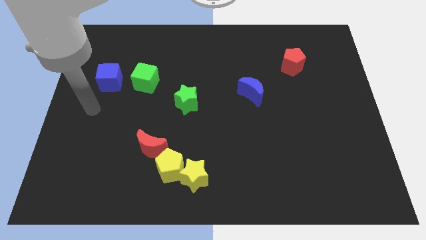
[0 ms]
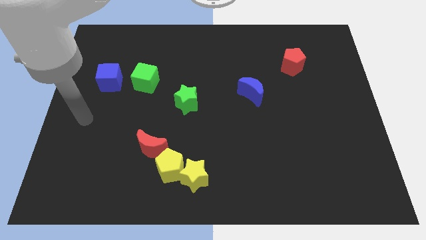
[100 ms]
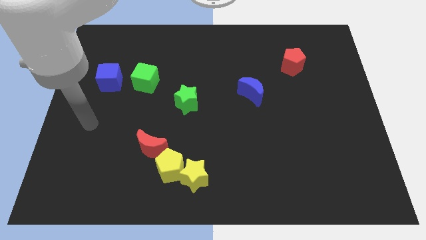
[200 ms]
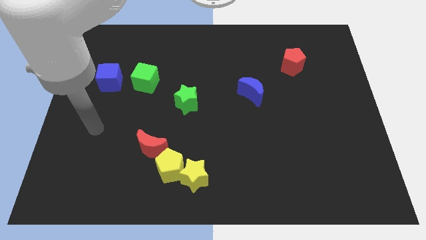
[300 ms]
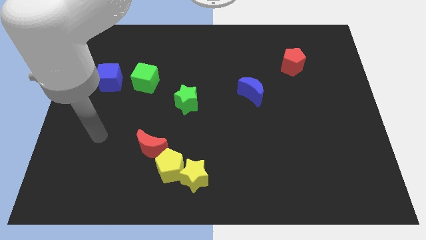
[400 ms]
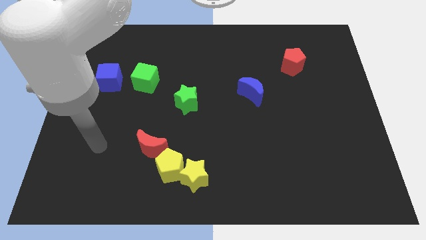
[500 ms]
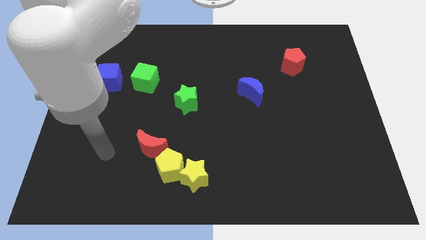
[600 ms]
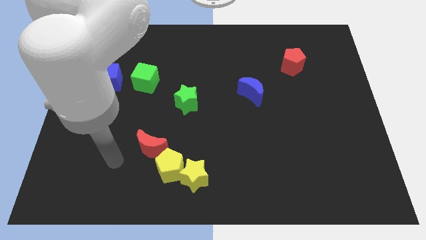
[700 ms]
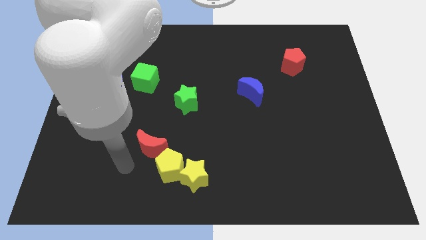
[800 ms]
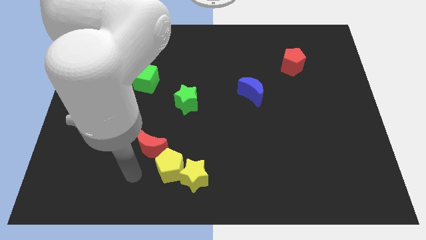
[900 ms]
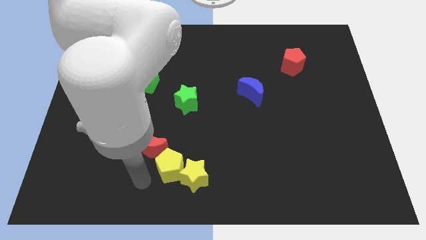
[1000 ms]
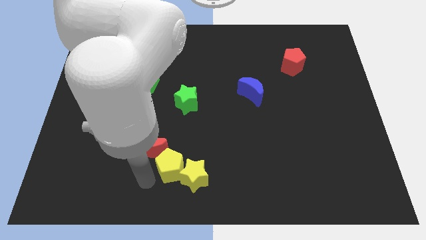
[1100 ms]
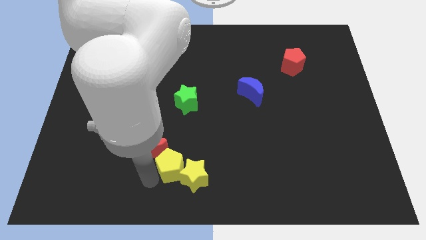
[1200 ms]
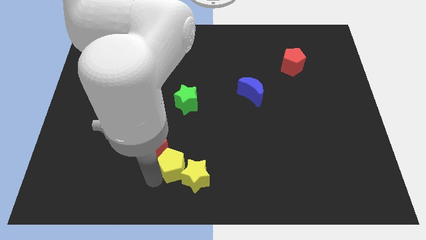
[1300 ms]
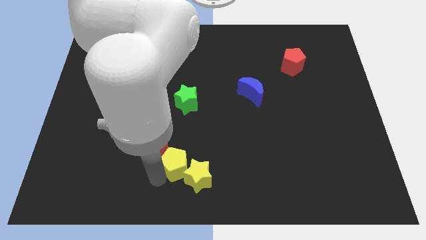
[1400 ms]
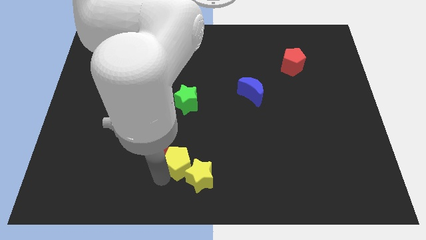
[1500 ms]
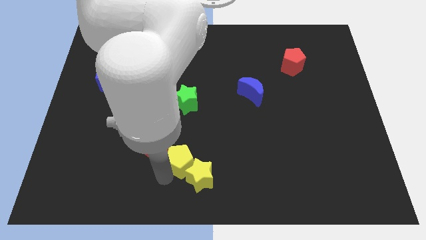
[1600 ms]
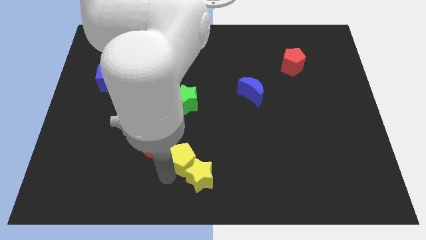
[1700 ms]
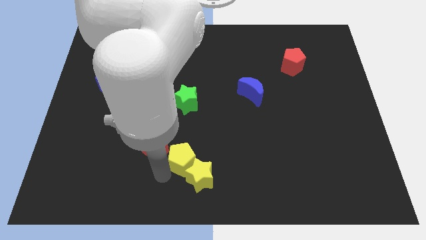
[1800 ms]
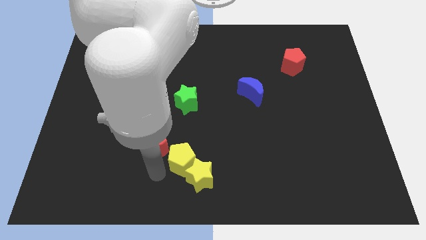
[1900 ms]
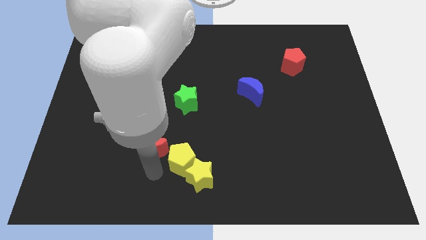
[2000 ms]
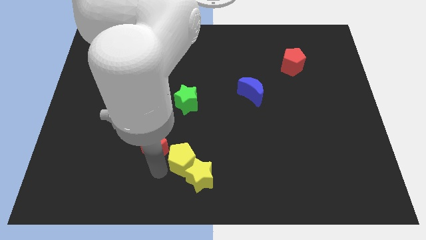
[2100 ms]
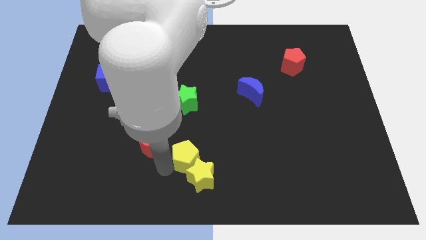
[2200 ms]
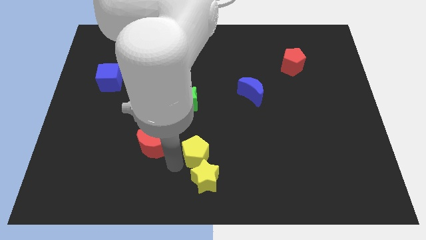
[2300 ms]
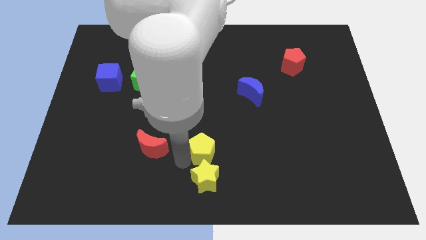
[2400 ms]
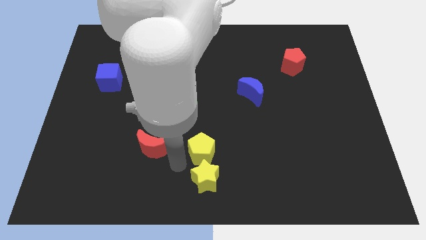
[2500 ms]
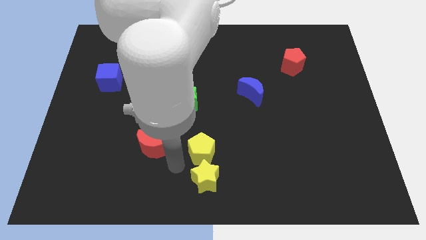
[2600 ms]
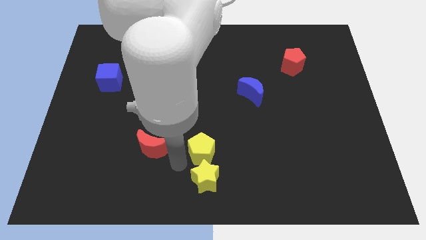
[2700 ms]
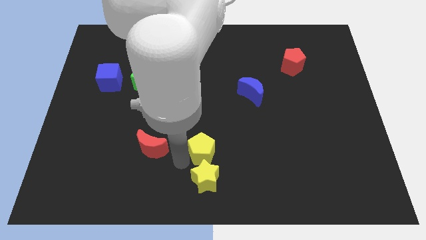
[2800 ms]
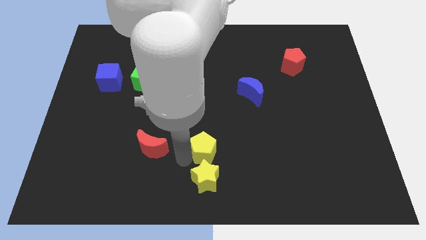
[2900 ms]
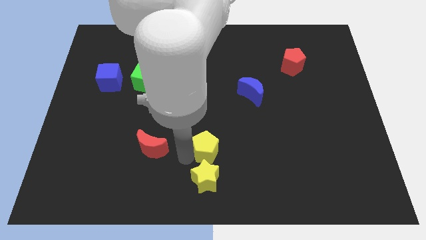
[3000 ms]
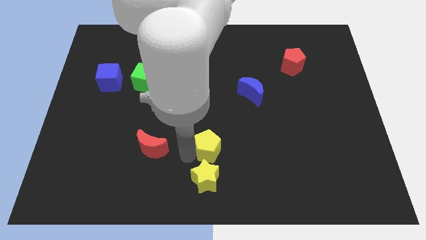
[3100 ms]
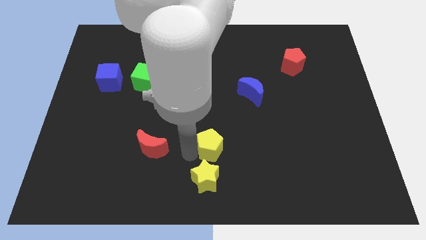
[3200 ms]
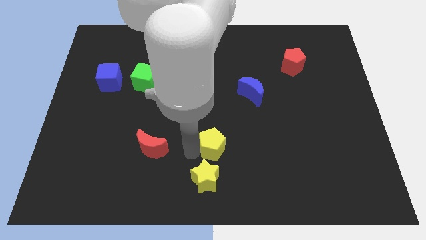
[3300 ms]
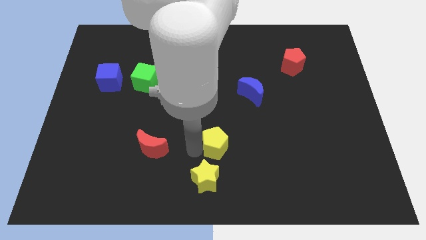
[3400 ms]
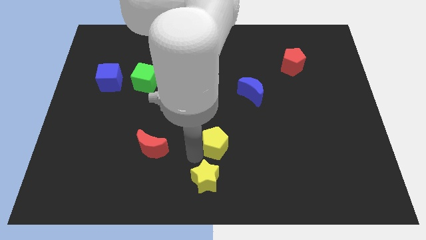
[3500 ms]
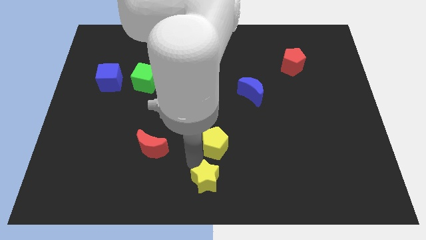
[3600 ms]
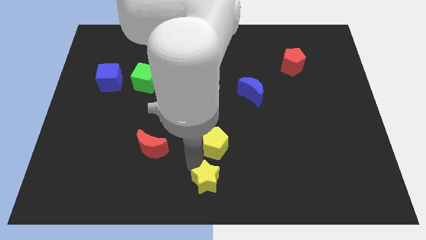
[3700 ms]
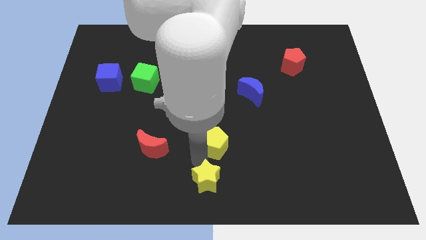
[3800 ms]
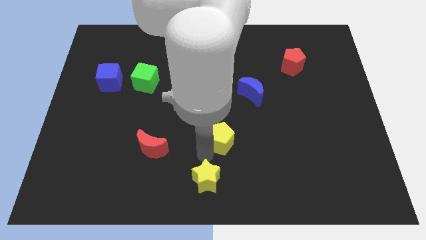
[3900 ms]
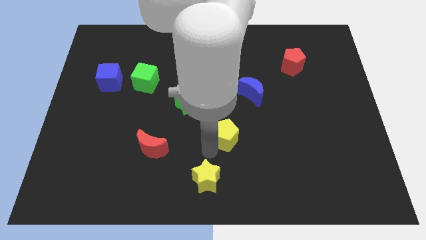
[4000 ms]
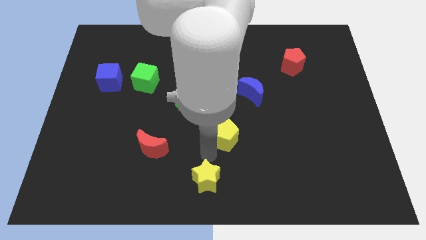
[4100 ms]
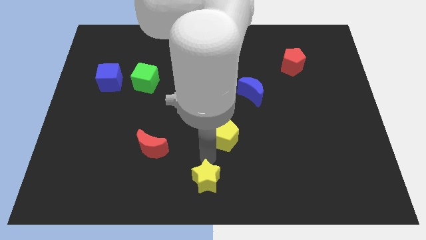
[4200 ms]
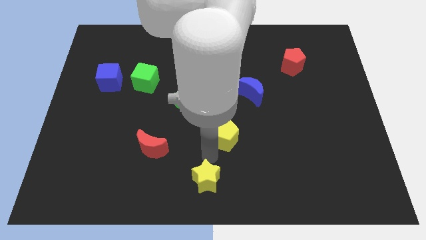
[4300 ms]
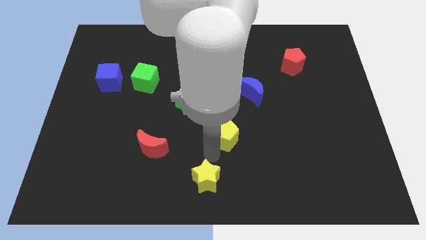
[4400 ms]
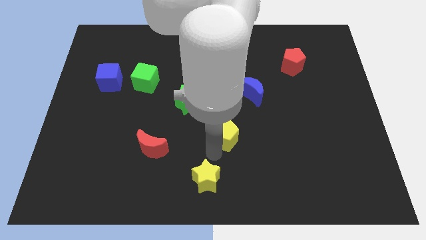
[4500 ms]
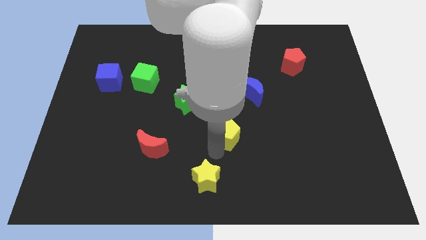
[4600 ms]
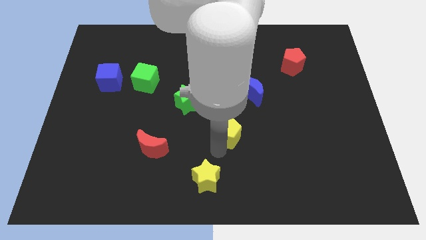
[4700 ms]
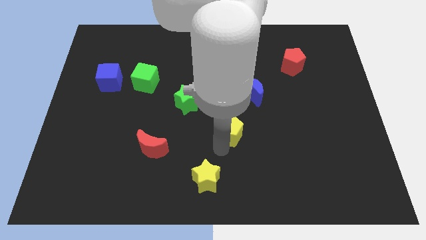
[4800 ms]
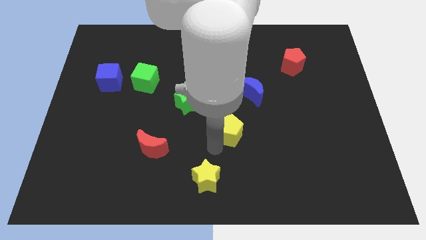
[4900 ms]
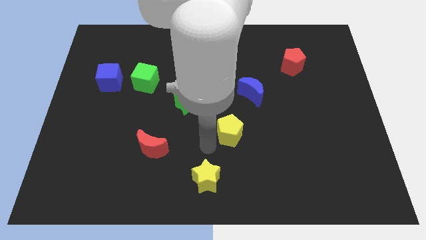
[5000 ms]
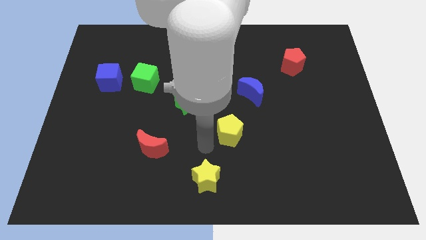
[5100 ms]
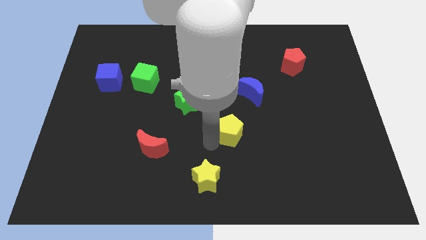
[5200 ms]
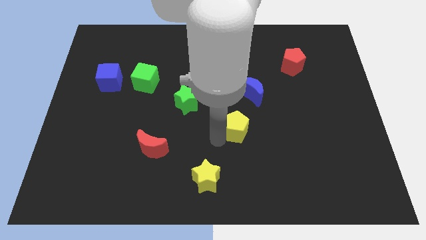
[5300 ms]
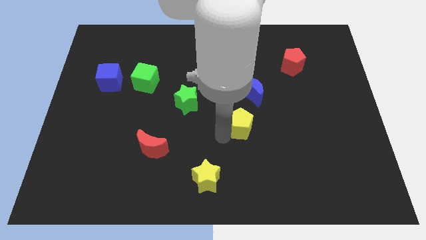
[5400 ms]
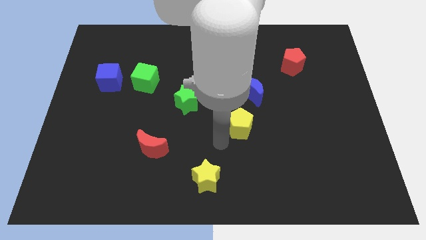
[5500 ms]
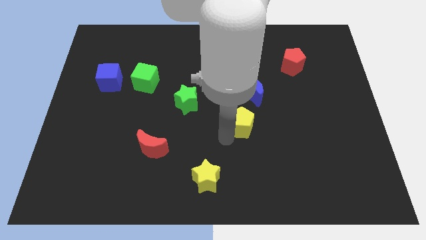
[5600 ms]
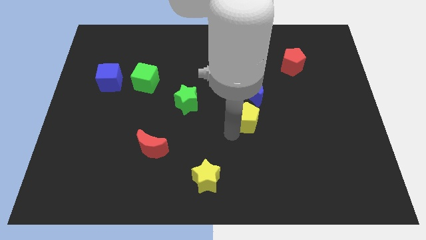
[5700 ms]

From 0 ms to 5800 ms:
slide the yellow pentagon diagonally upwards and right

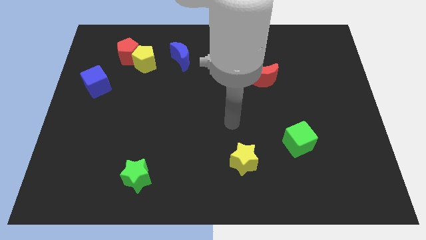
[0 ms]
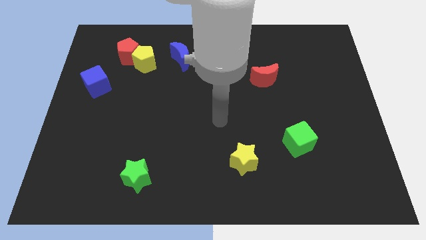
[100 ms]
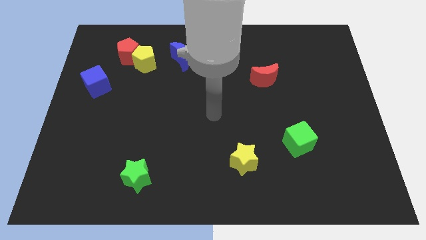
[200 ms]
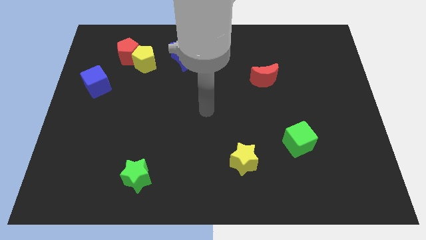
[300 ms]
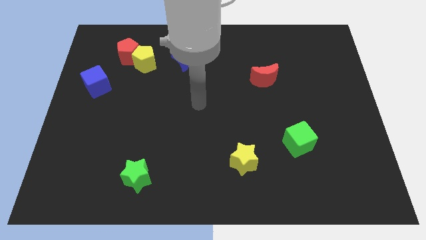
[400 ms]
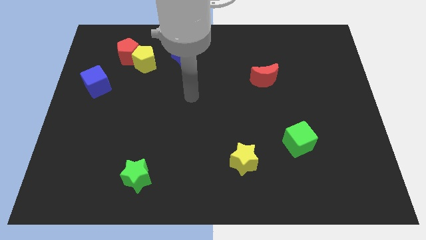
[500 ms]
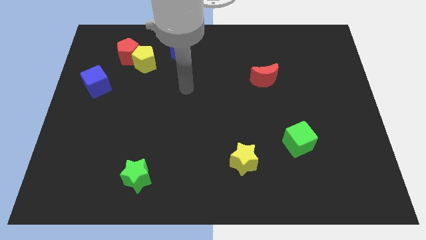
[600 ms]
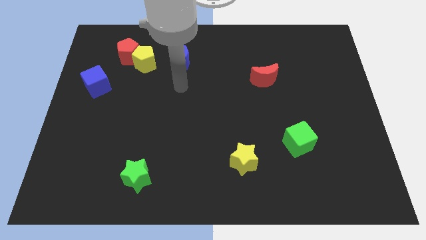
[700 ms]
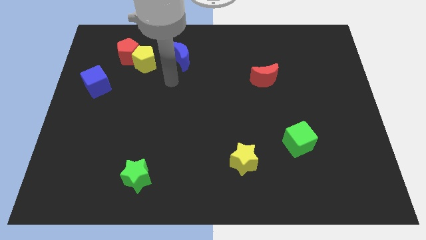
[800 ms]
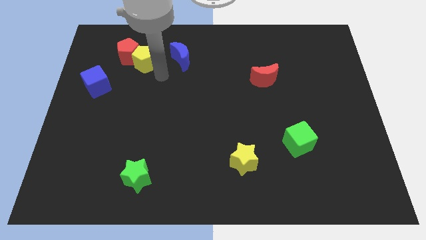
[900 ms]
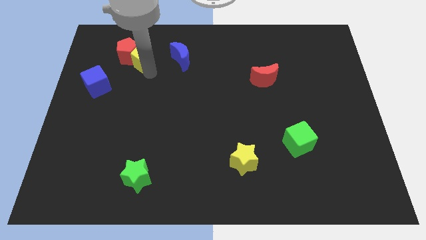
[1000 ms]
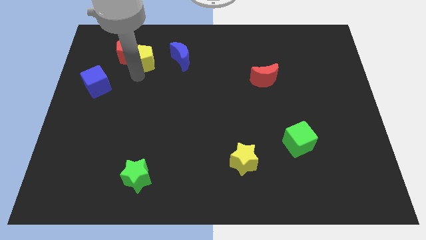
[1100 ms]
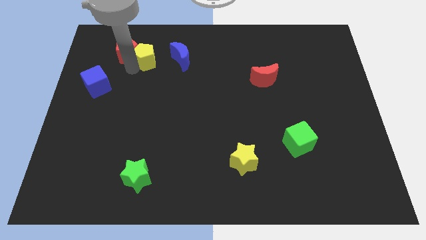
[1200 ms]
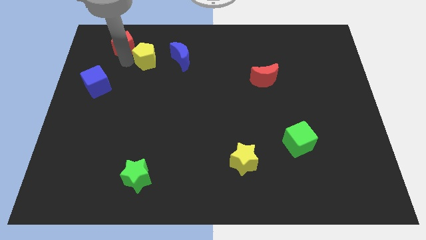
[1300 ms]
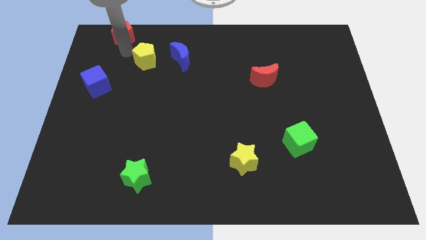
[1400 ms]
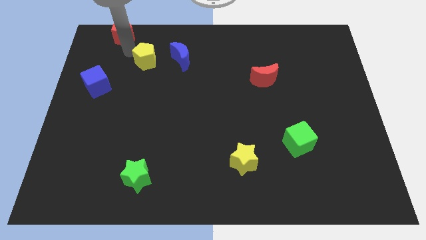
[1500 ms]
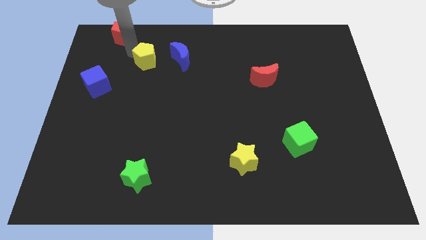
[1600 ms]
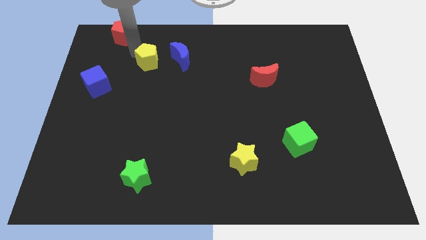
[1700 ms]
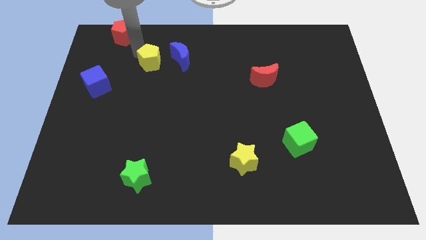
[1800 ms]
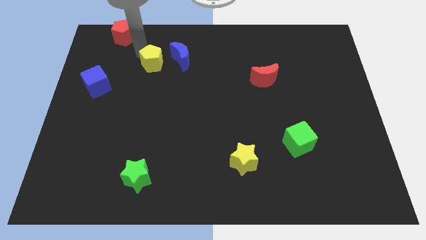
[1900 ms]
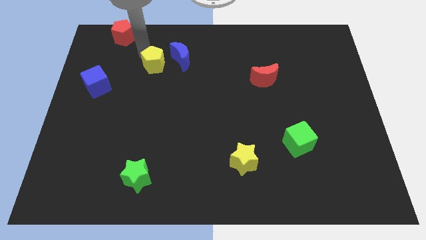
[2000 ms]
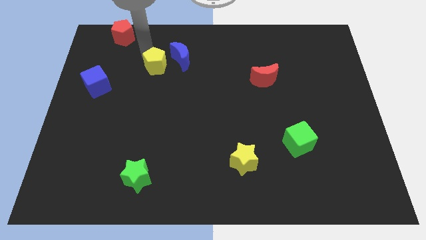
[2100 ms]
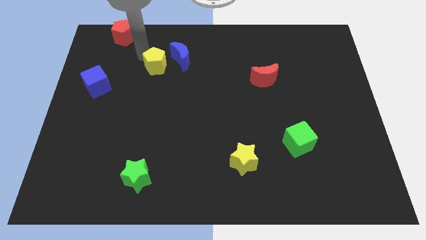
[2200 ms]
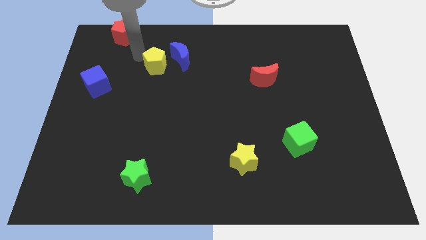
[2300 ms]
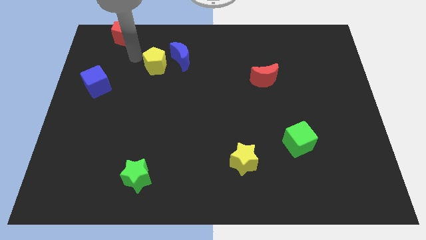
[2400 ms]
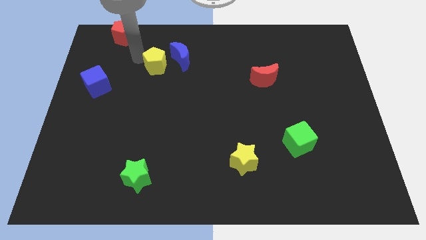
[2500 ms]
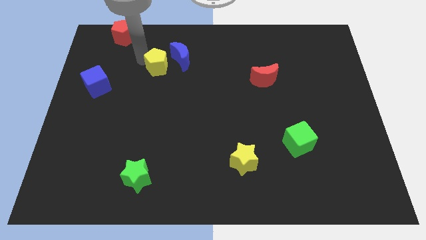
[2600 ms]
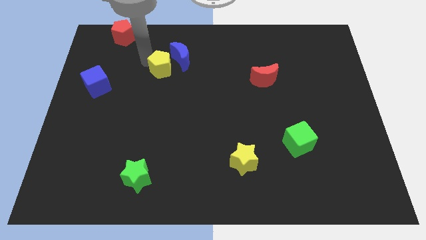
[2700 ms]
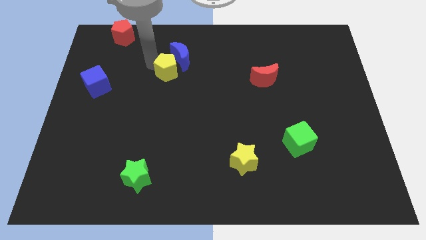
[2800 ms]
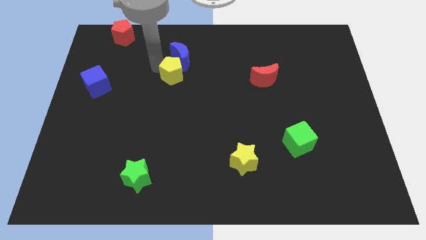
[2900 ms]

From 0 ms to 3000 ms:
slide the yellow pentagon right somewhat
